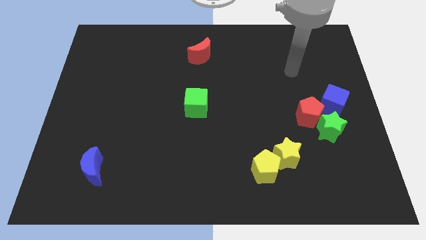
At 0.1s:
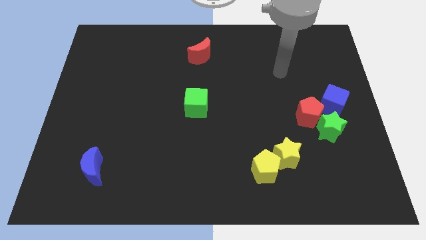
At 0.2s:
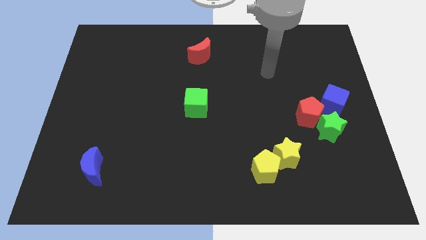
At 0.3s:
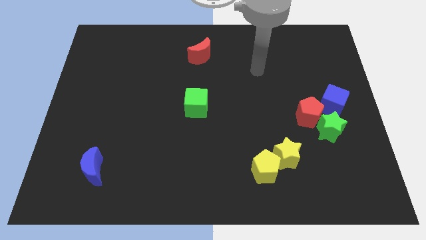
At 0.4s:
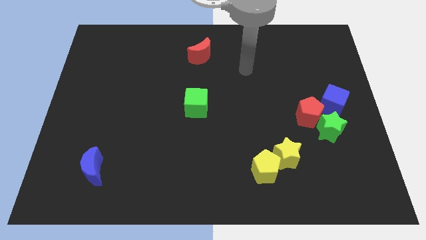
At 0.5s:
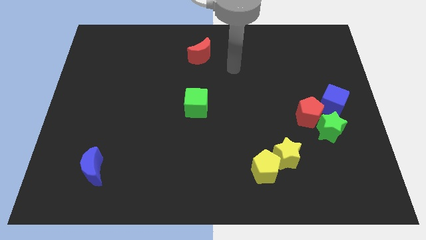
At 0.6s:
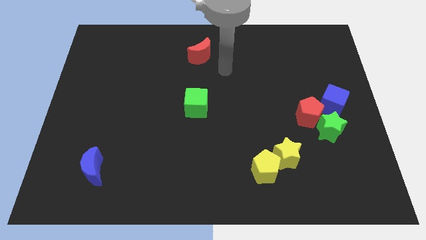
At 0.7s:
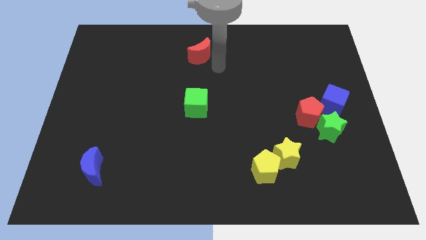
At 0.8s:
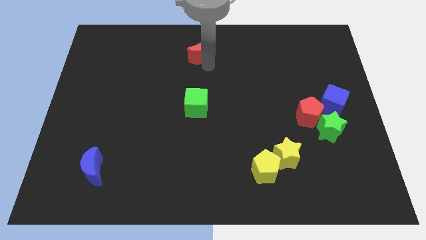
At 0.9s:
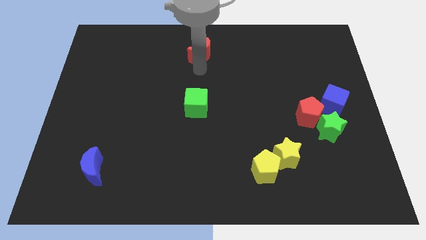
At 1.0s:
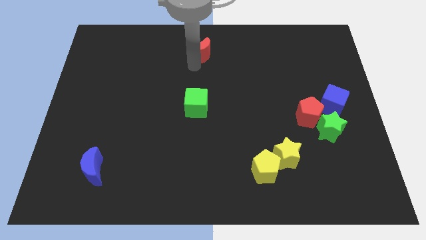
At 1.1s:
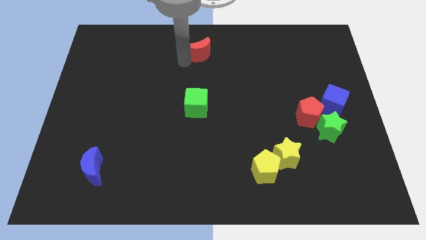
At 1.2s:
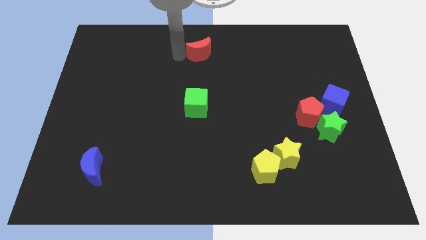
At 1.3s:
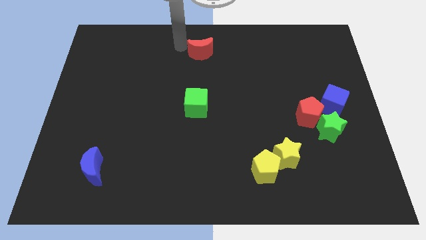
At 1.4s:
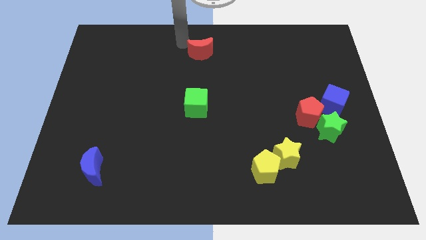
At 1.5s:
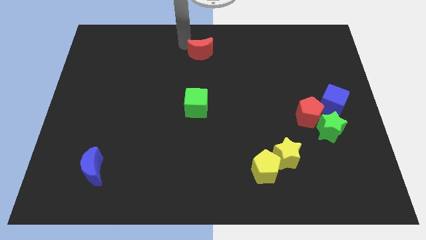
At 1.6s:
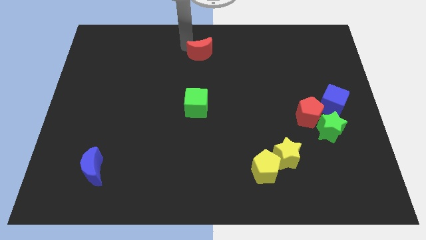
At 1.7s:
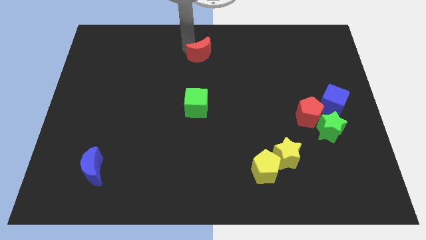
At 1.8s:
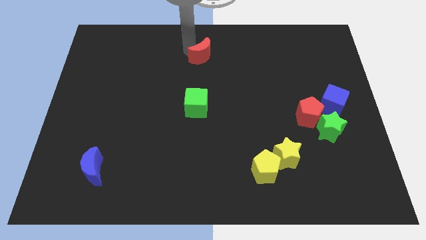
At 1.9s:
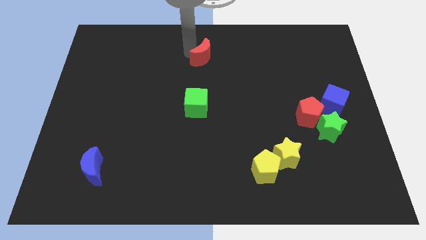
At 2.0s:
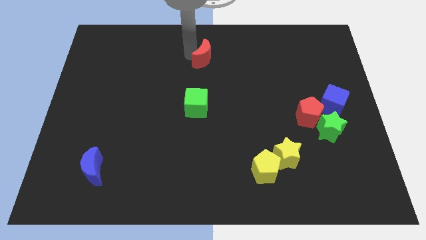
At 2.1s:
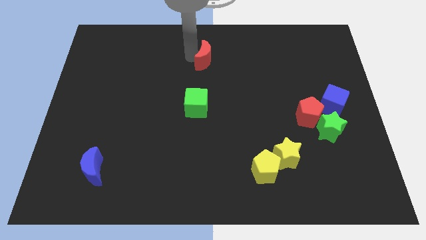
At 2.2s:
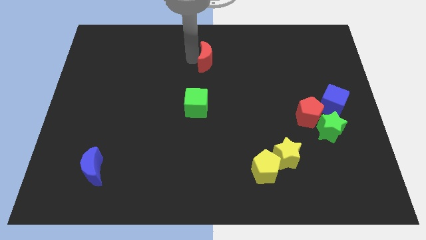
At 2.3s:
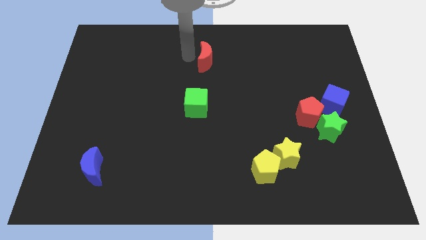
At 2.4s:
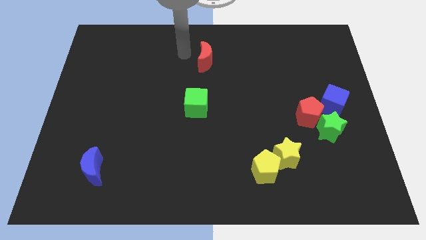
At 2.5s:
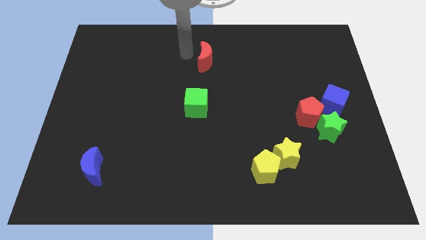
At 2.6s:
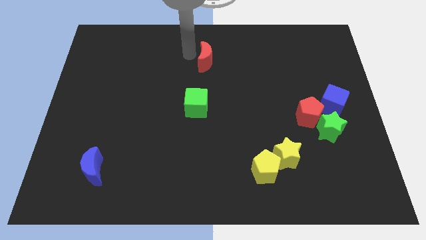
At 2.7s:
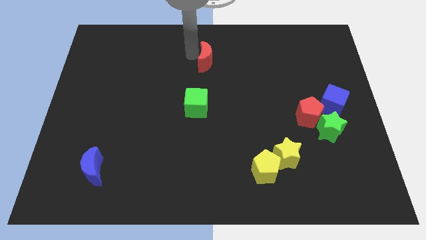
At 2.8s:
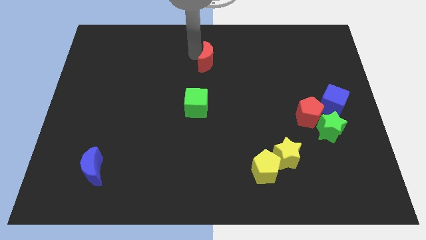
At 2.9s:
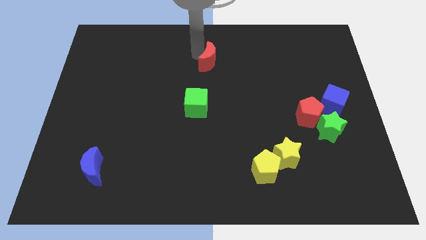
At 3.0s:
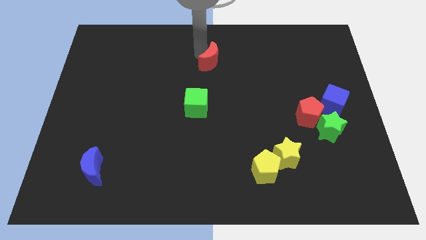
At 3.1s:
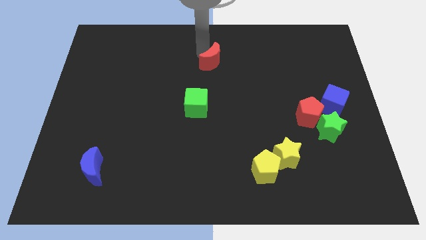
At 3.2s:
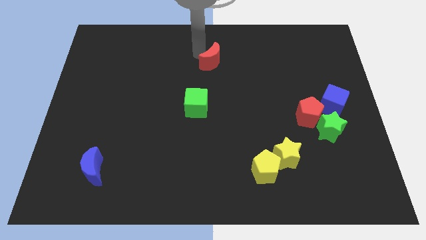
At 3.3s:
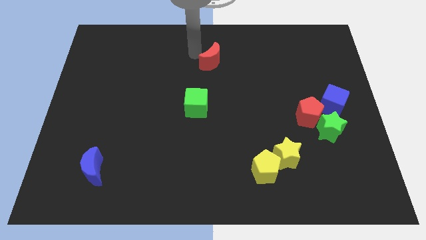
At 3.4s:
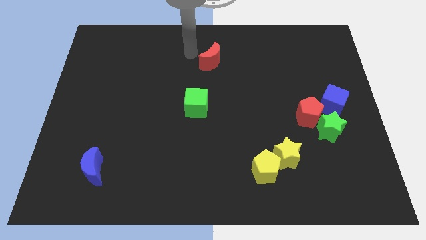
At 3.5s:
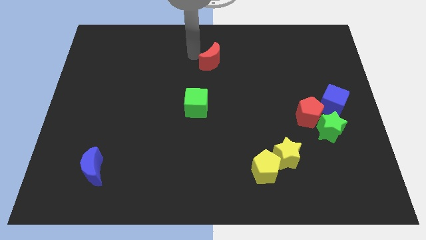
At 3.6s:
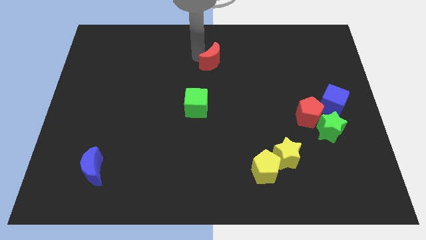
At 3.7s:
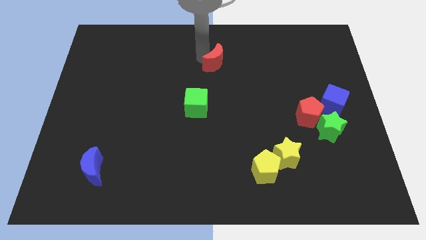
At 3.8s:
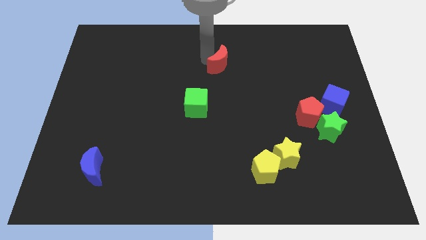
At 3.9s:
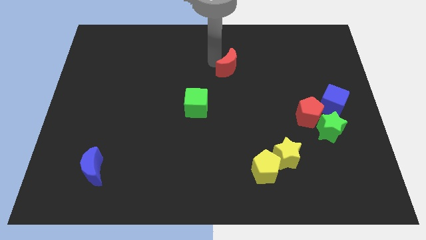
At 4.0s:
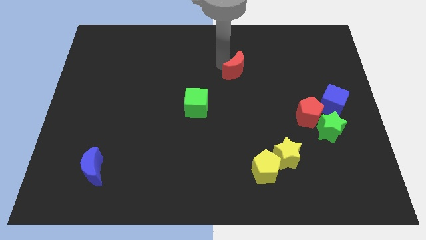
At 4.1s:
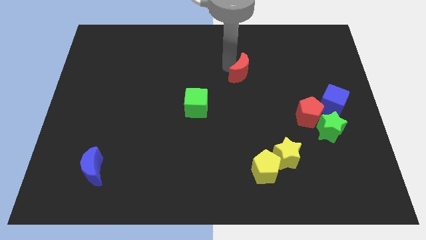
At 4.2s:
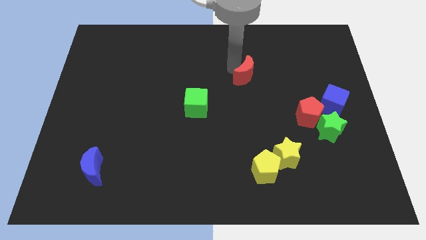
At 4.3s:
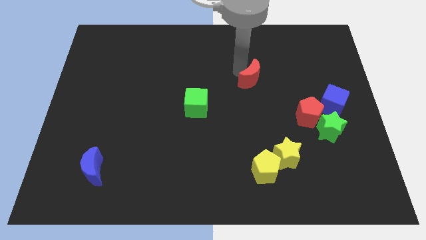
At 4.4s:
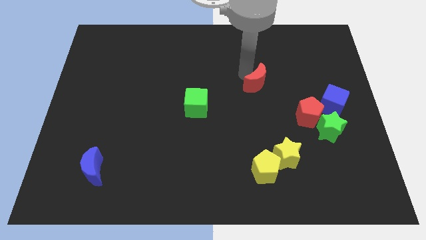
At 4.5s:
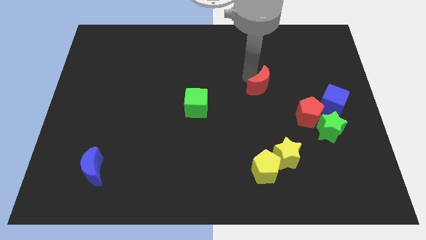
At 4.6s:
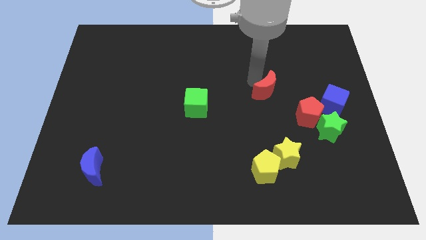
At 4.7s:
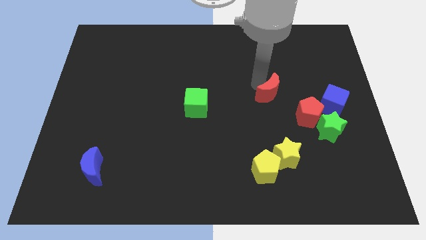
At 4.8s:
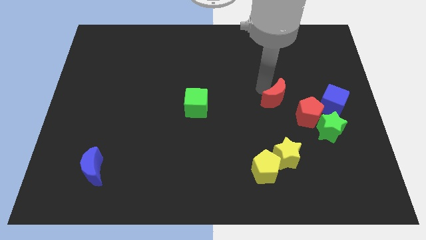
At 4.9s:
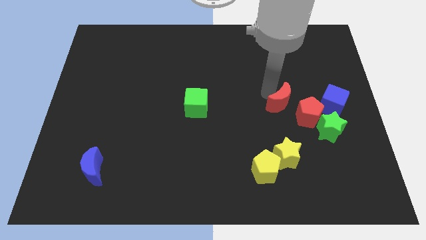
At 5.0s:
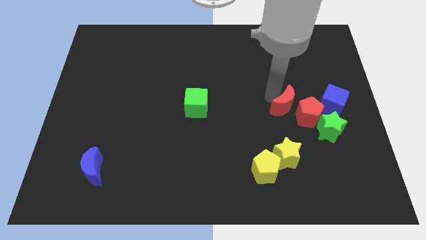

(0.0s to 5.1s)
push the red moon towards the red pentagon

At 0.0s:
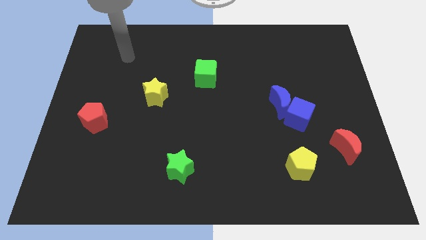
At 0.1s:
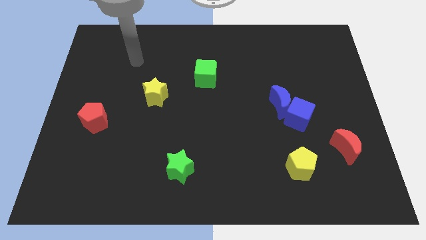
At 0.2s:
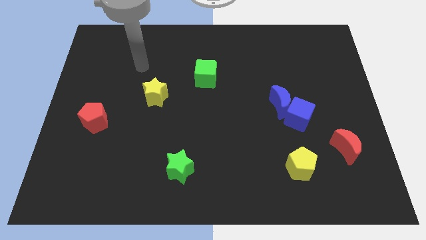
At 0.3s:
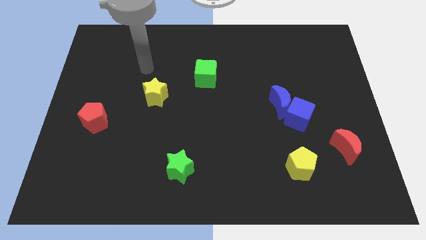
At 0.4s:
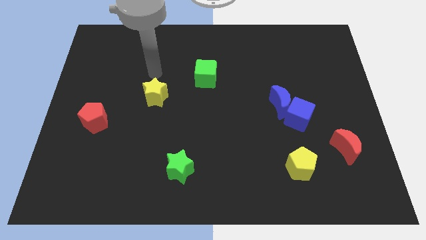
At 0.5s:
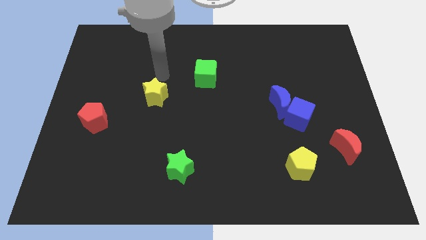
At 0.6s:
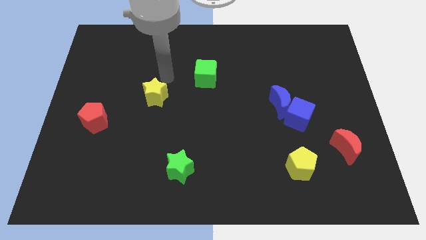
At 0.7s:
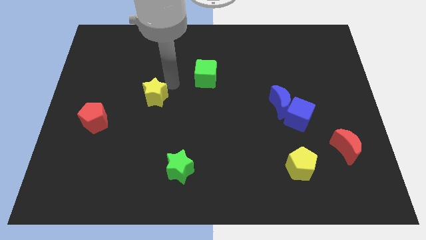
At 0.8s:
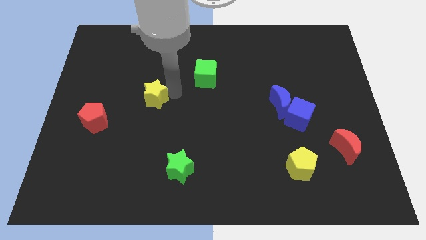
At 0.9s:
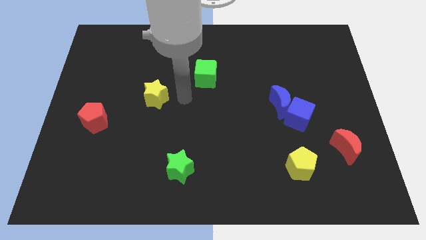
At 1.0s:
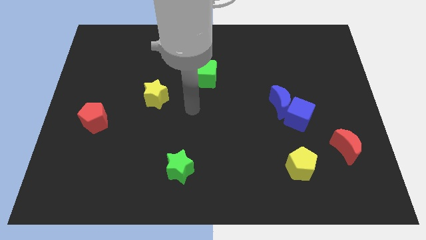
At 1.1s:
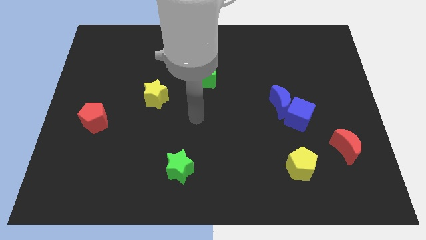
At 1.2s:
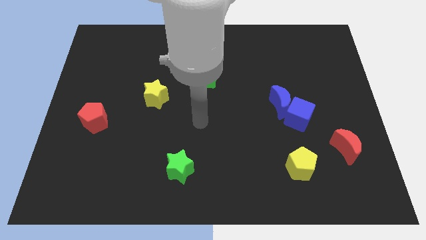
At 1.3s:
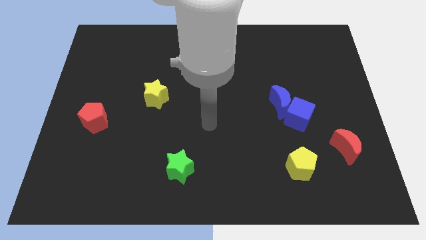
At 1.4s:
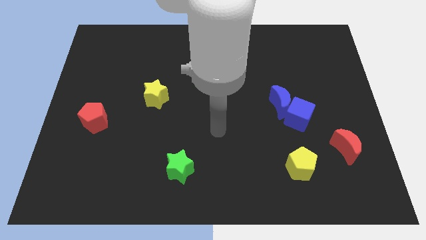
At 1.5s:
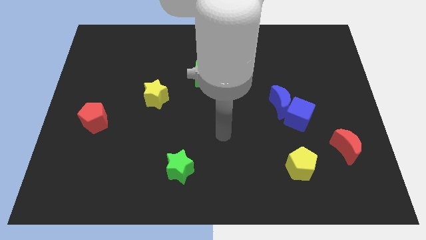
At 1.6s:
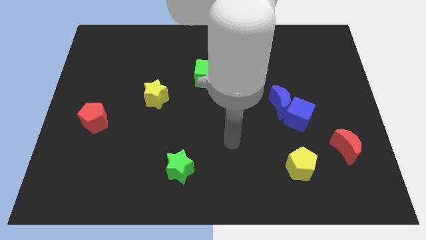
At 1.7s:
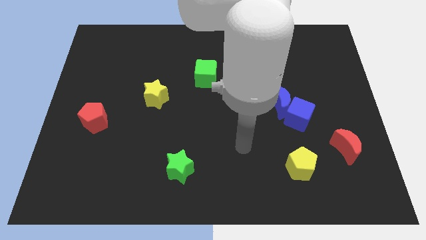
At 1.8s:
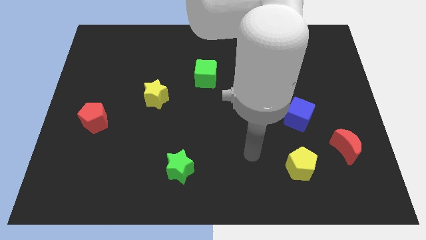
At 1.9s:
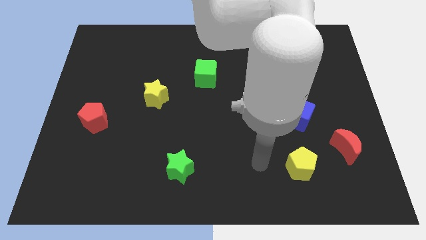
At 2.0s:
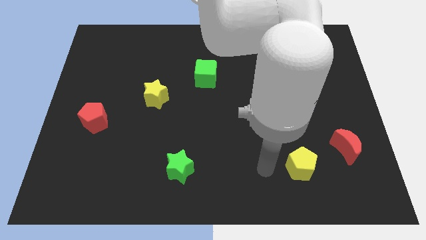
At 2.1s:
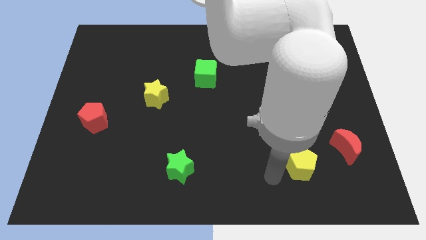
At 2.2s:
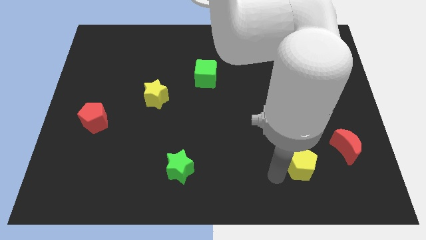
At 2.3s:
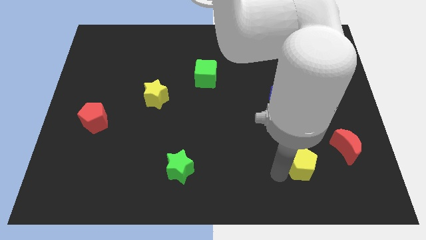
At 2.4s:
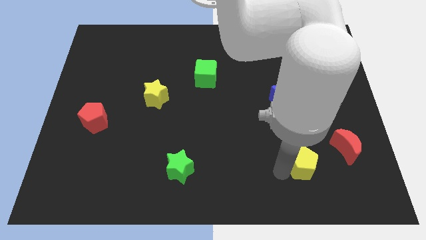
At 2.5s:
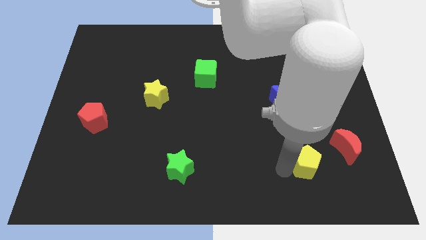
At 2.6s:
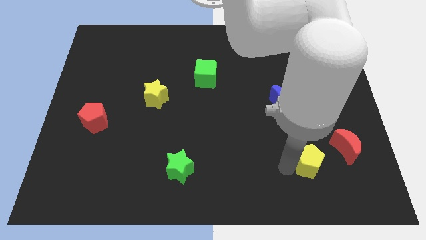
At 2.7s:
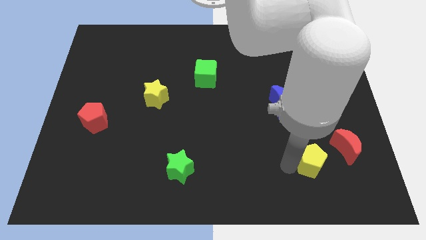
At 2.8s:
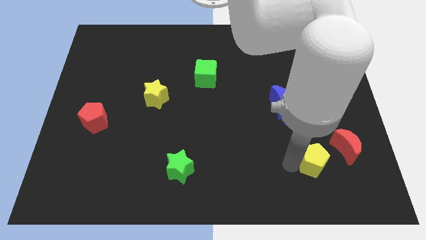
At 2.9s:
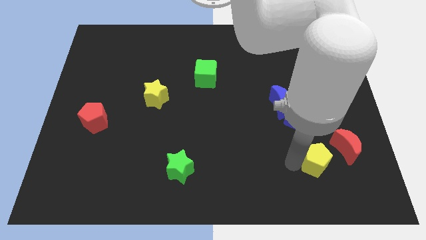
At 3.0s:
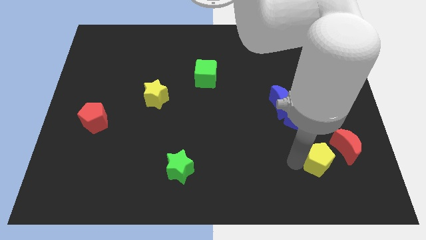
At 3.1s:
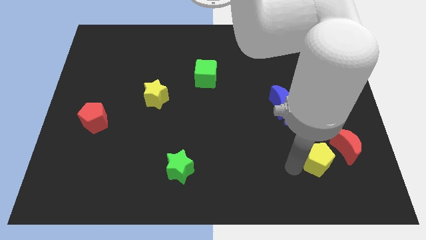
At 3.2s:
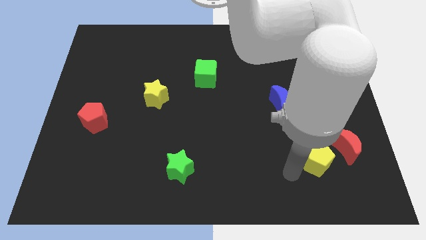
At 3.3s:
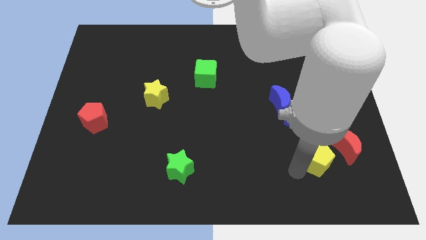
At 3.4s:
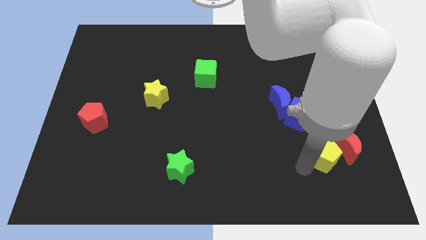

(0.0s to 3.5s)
put the yellow pentagon to the red moon
